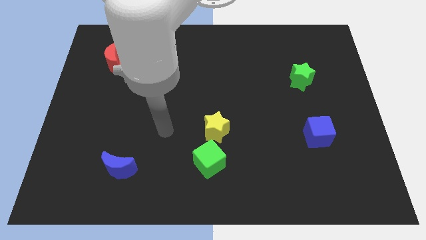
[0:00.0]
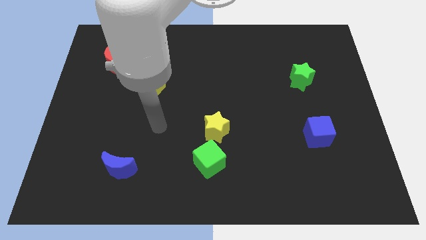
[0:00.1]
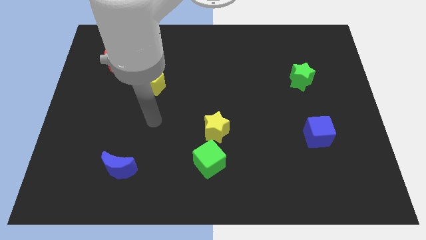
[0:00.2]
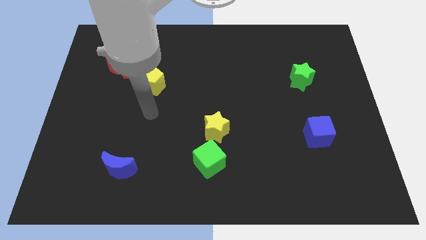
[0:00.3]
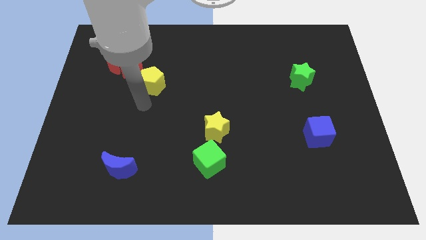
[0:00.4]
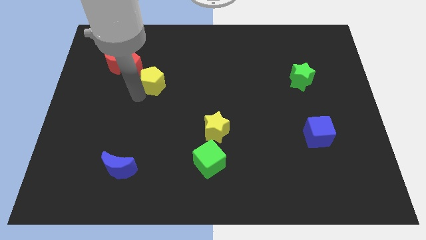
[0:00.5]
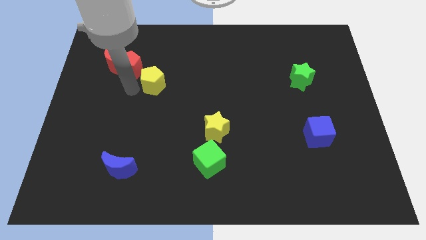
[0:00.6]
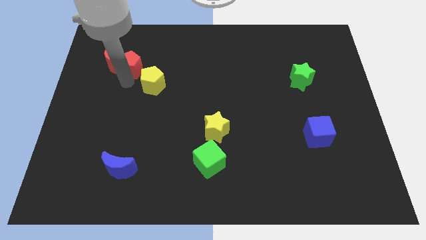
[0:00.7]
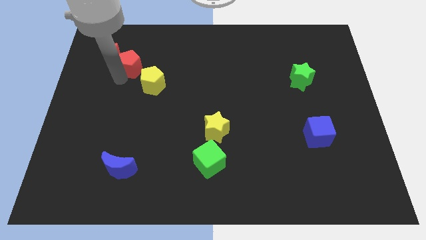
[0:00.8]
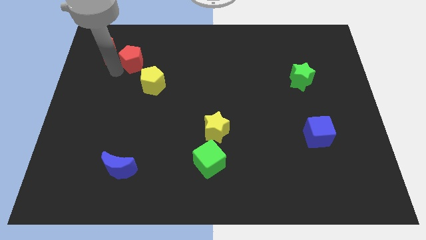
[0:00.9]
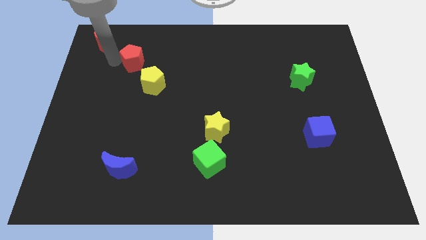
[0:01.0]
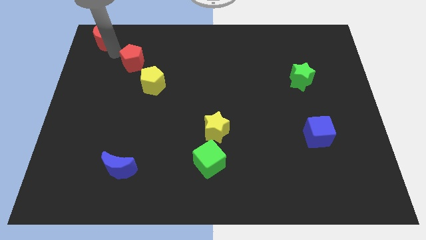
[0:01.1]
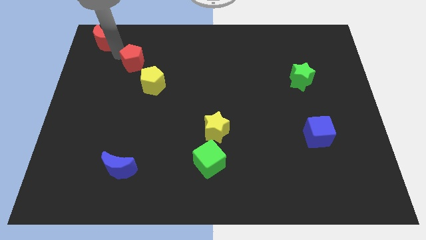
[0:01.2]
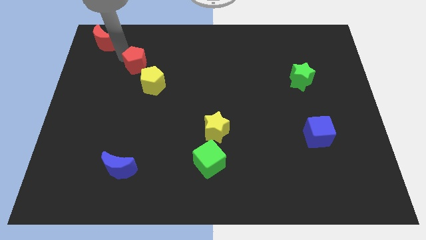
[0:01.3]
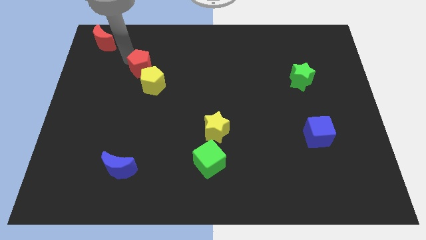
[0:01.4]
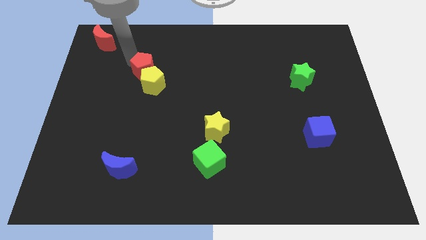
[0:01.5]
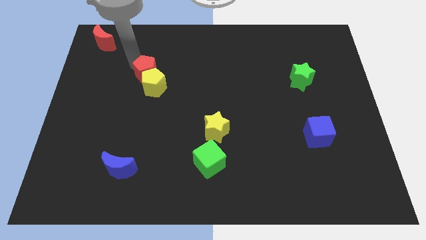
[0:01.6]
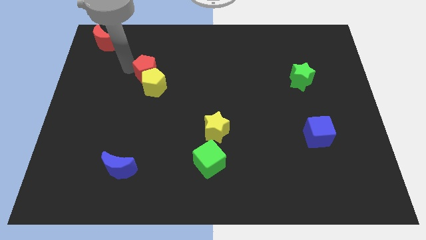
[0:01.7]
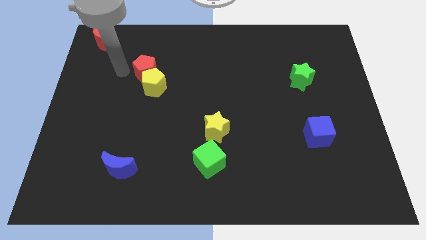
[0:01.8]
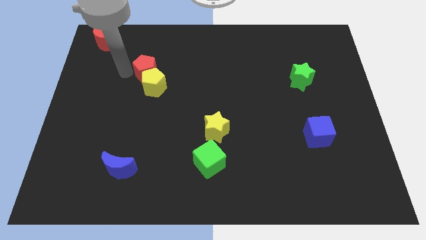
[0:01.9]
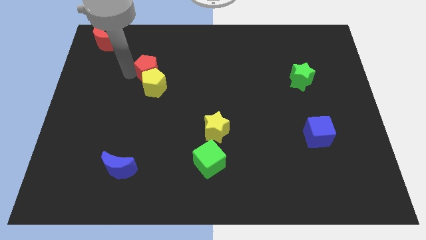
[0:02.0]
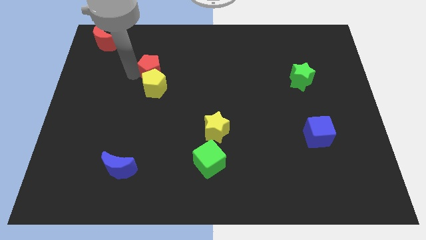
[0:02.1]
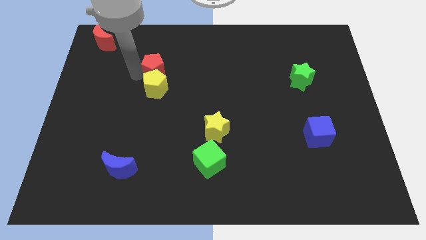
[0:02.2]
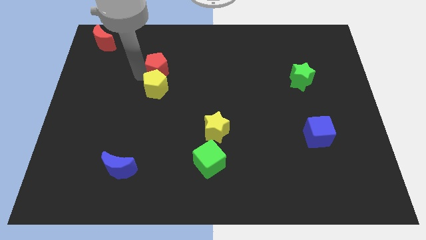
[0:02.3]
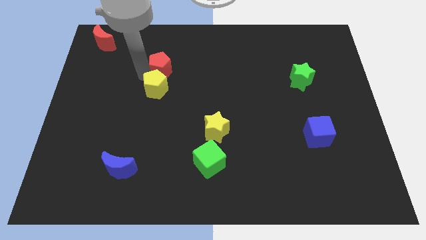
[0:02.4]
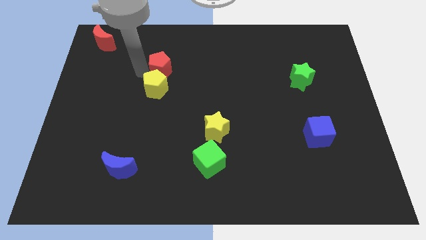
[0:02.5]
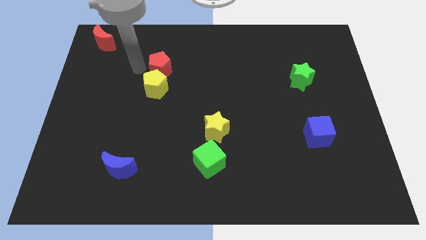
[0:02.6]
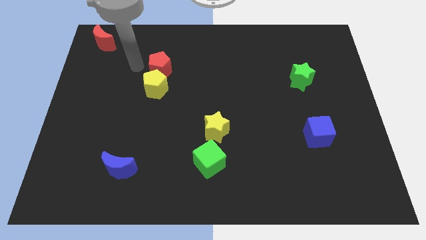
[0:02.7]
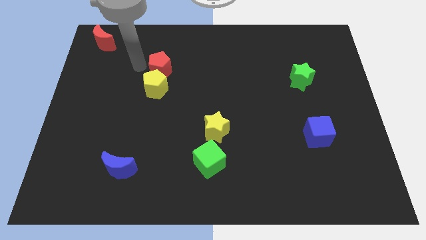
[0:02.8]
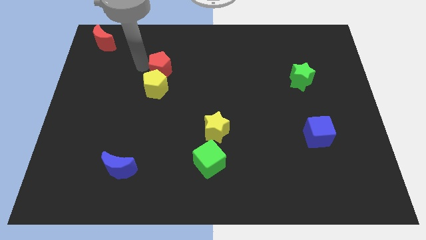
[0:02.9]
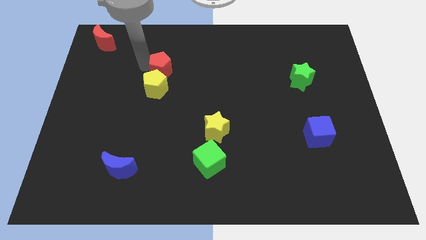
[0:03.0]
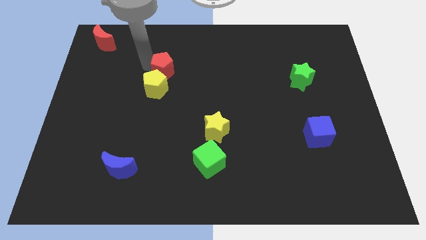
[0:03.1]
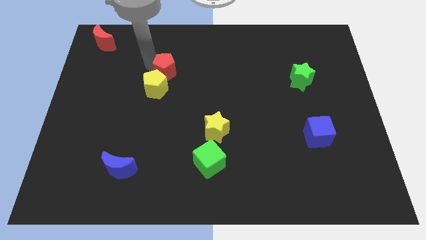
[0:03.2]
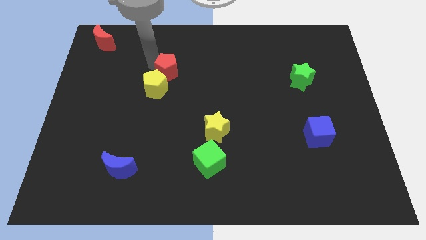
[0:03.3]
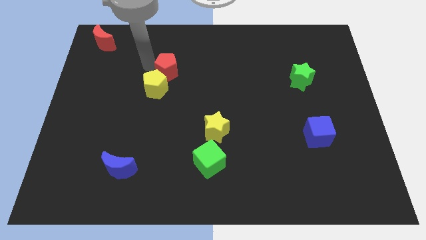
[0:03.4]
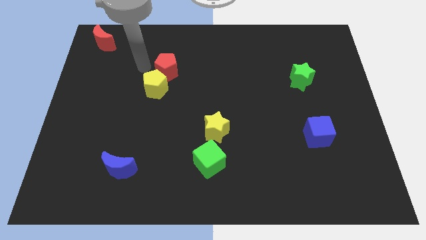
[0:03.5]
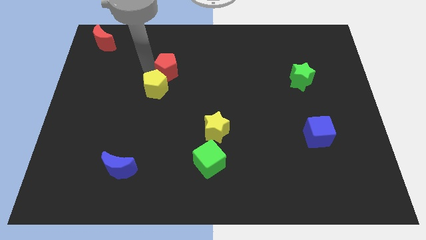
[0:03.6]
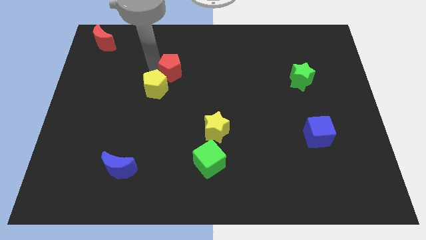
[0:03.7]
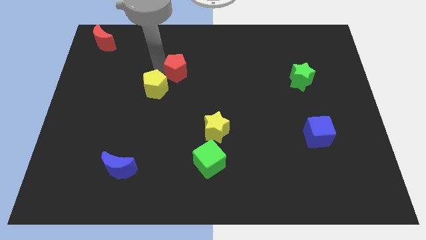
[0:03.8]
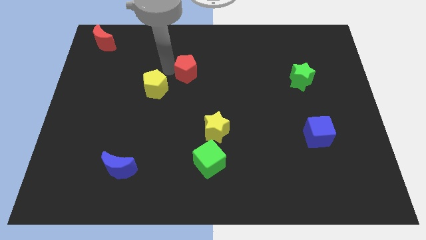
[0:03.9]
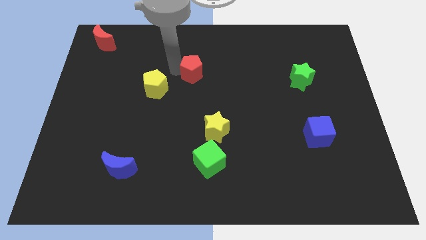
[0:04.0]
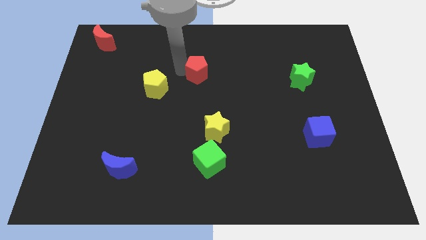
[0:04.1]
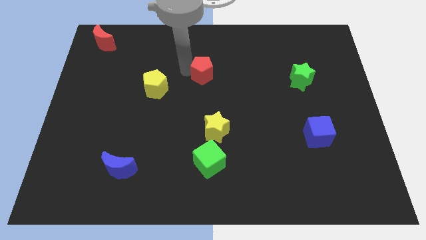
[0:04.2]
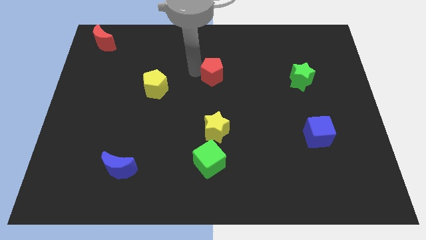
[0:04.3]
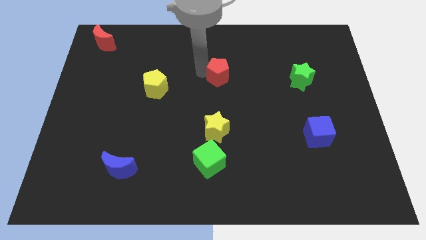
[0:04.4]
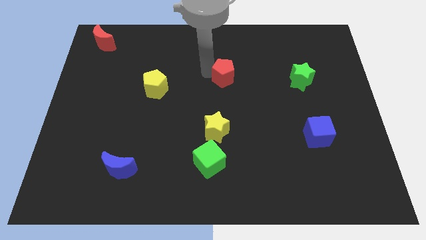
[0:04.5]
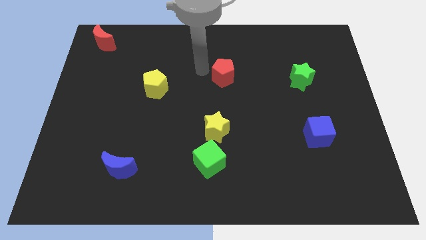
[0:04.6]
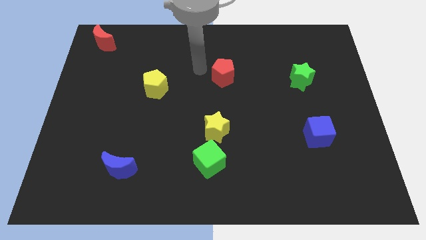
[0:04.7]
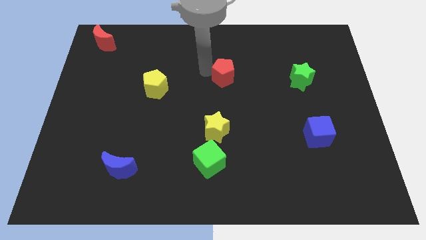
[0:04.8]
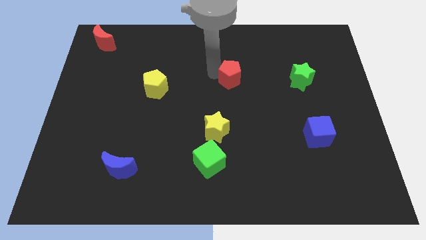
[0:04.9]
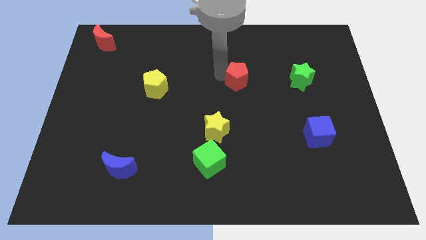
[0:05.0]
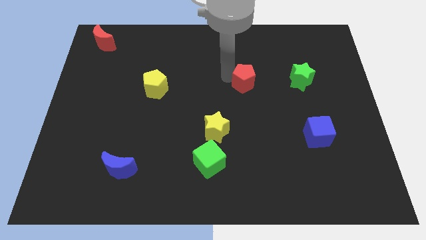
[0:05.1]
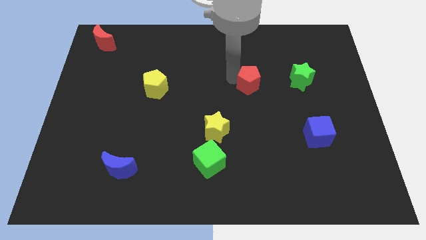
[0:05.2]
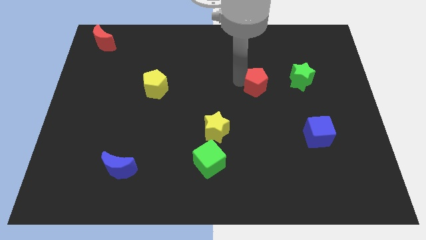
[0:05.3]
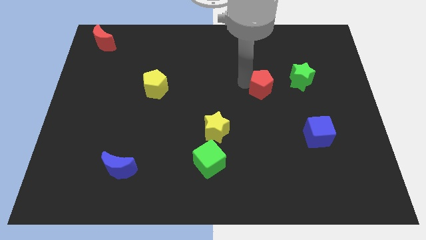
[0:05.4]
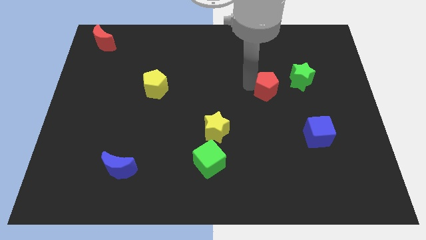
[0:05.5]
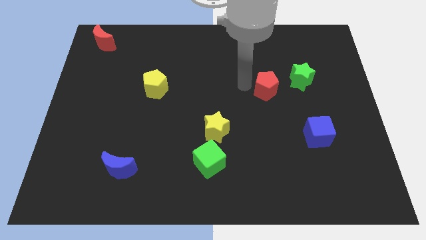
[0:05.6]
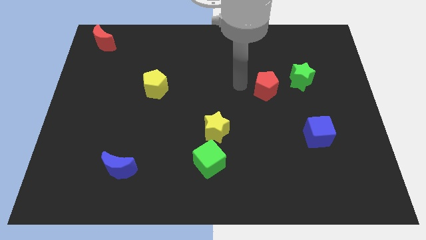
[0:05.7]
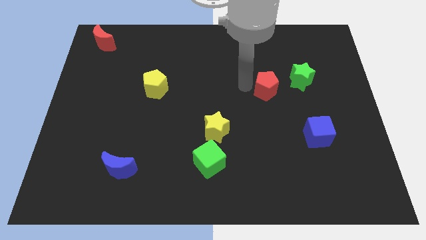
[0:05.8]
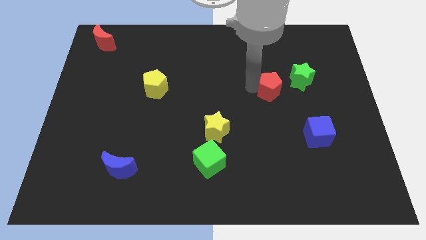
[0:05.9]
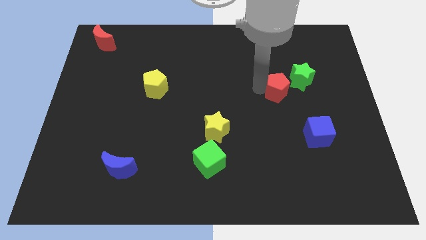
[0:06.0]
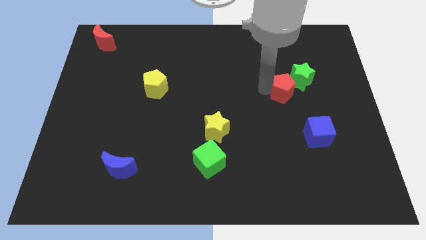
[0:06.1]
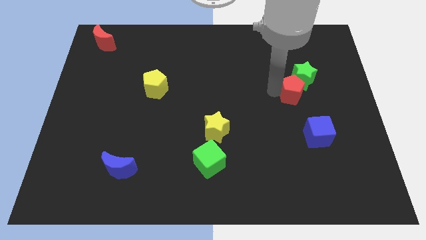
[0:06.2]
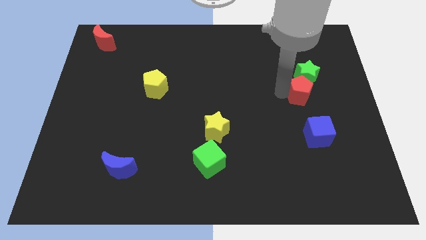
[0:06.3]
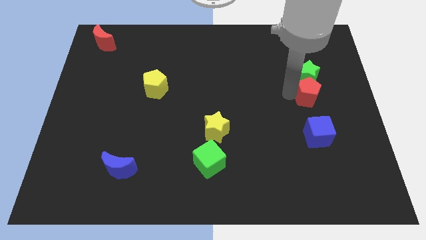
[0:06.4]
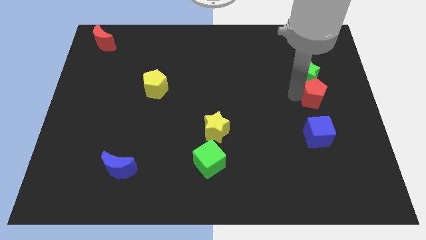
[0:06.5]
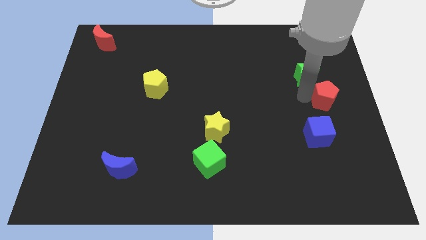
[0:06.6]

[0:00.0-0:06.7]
put the red pentagon to the right side of the board
